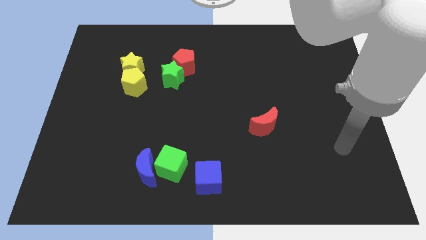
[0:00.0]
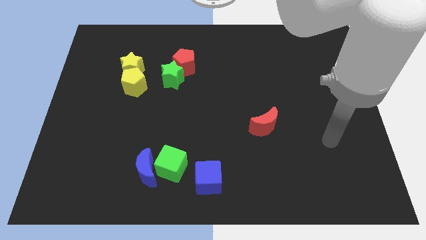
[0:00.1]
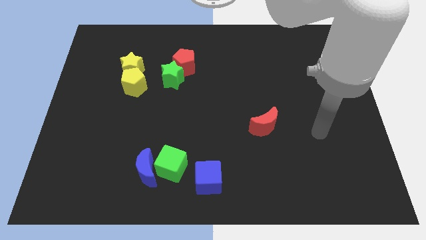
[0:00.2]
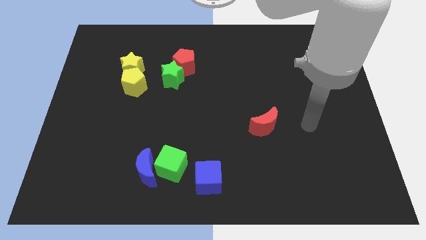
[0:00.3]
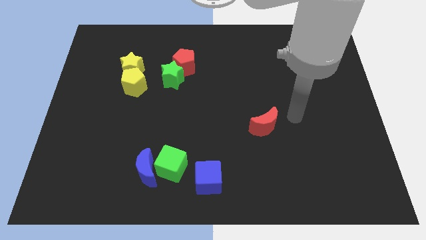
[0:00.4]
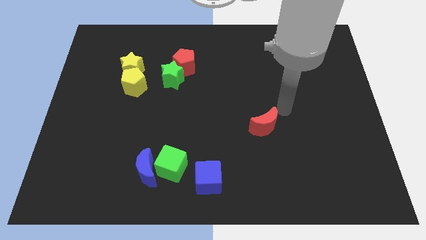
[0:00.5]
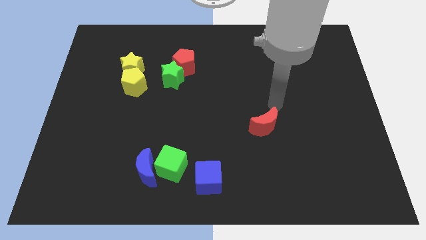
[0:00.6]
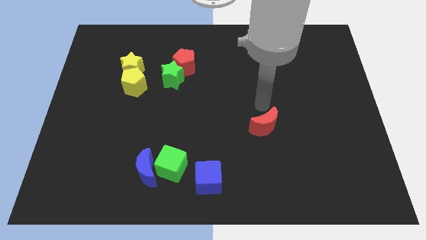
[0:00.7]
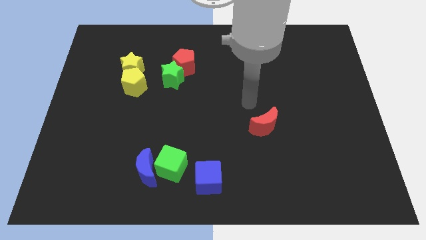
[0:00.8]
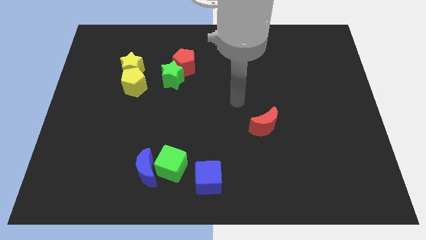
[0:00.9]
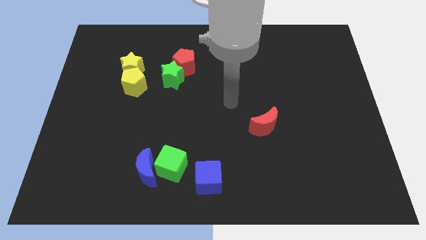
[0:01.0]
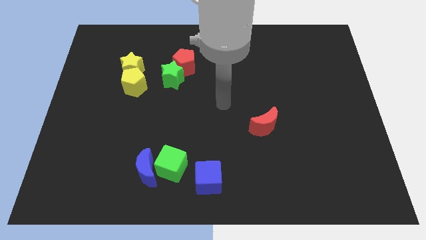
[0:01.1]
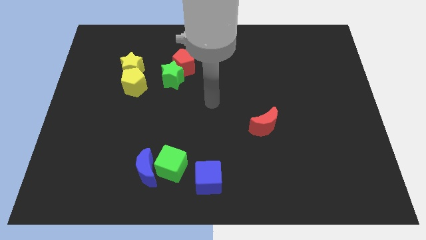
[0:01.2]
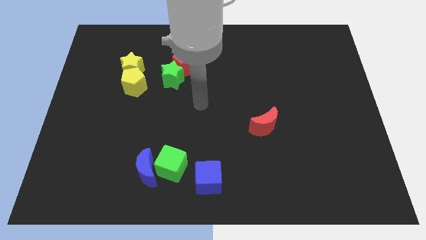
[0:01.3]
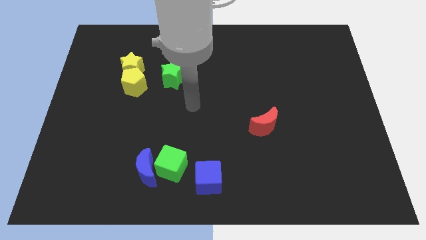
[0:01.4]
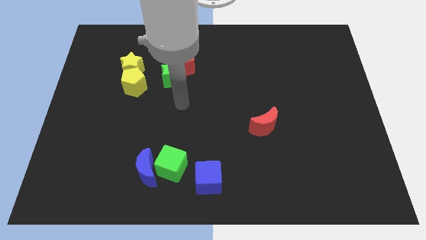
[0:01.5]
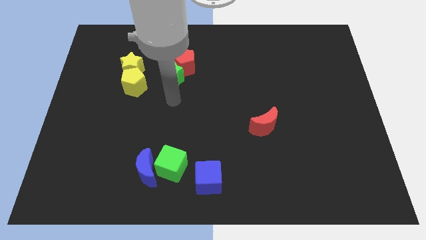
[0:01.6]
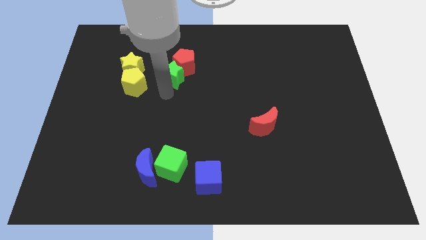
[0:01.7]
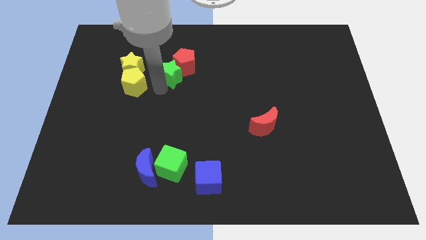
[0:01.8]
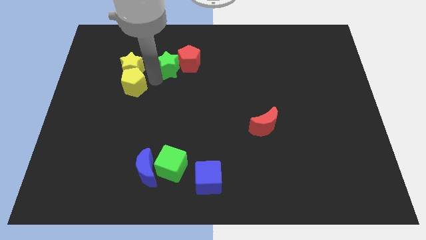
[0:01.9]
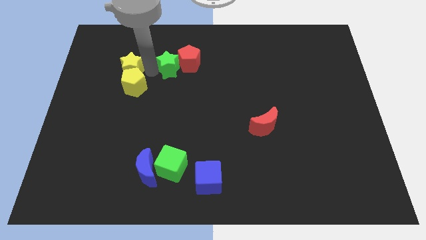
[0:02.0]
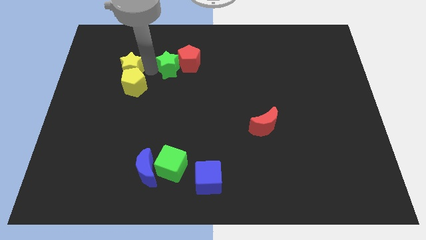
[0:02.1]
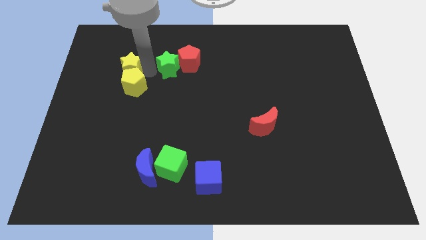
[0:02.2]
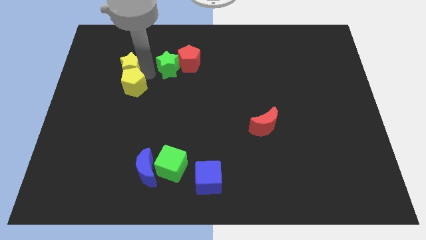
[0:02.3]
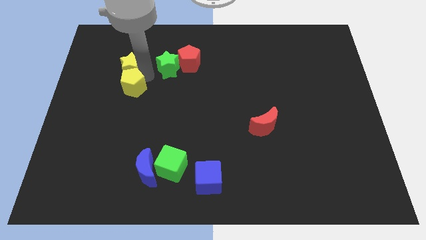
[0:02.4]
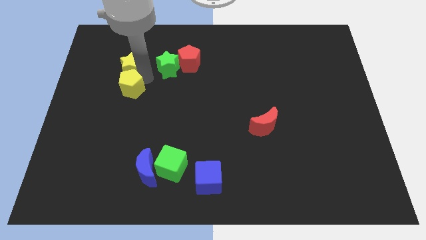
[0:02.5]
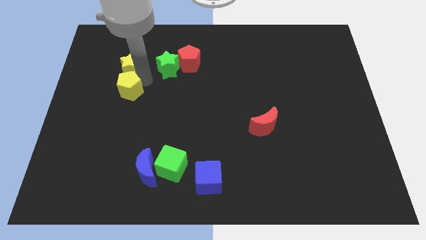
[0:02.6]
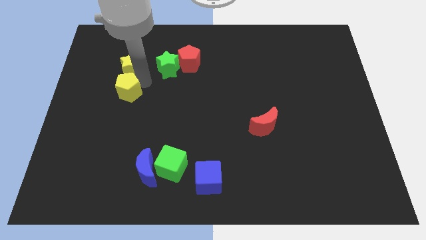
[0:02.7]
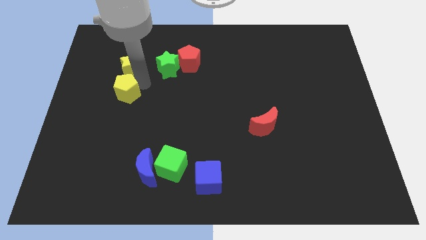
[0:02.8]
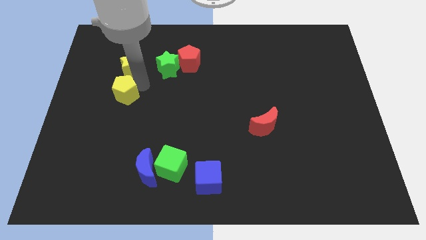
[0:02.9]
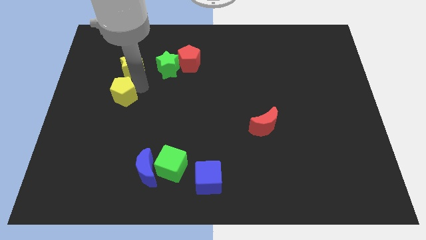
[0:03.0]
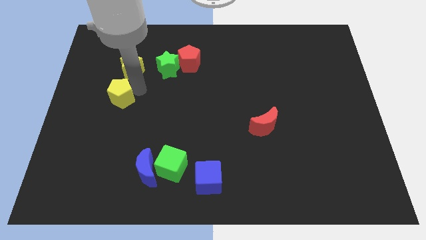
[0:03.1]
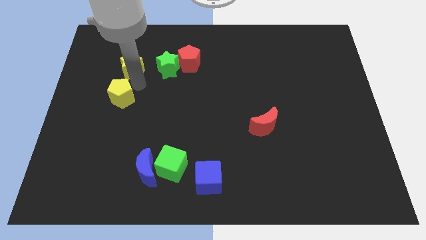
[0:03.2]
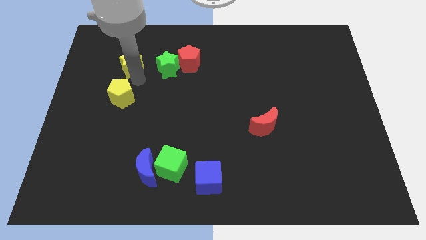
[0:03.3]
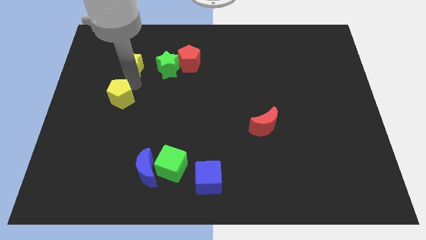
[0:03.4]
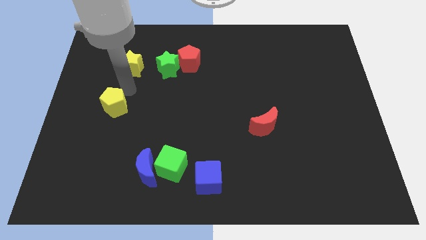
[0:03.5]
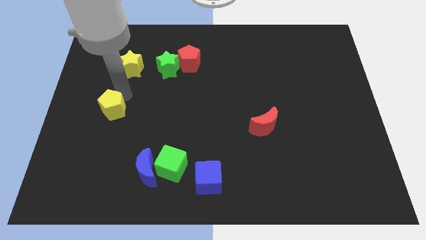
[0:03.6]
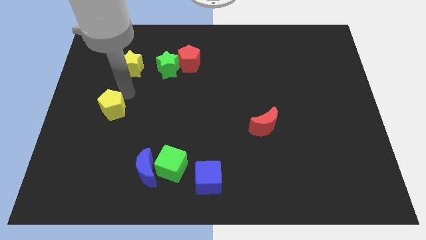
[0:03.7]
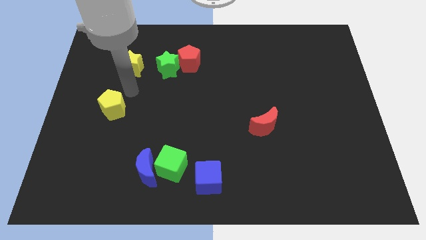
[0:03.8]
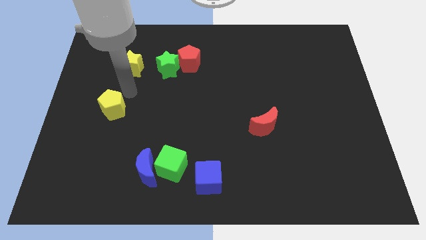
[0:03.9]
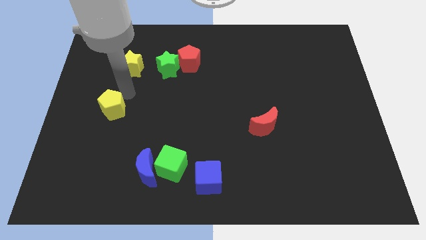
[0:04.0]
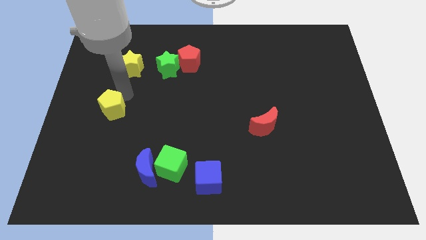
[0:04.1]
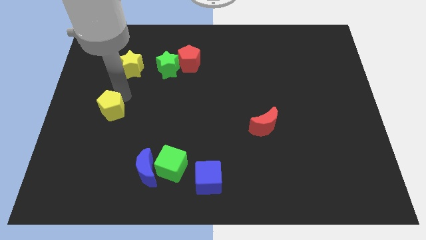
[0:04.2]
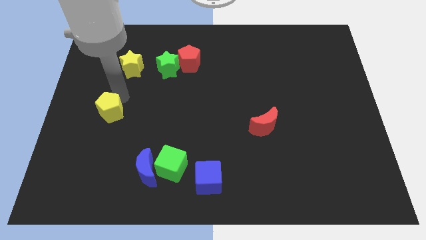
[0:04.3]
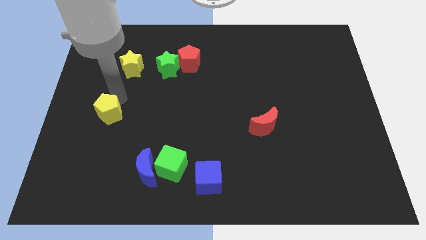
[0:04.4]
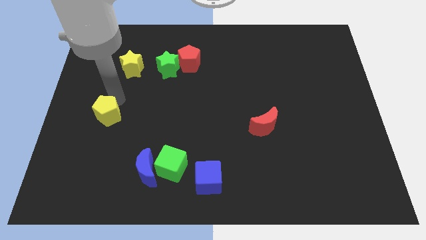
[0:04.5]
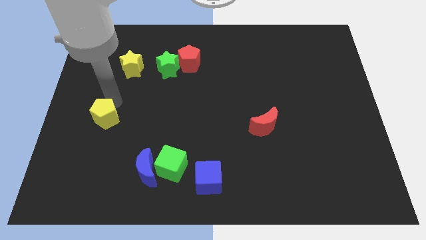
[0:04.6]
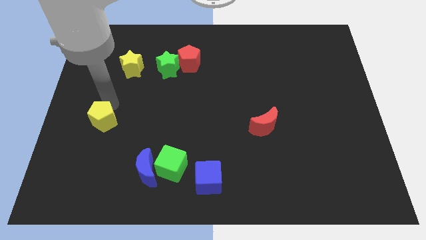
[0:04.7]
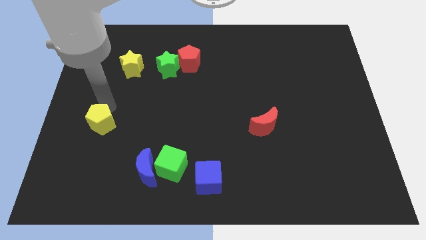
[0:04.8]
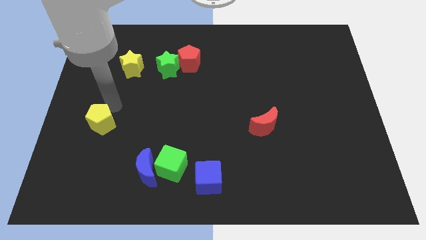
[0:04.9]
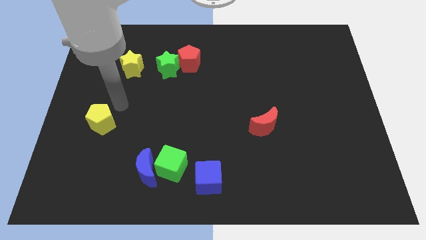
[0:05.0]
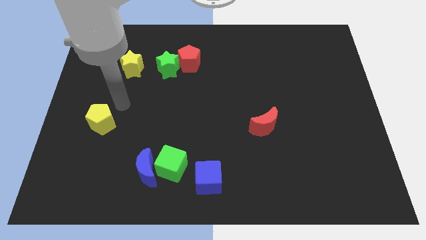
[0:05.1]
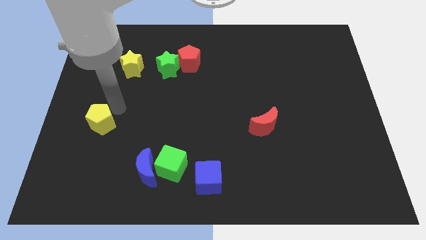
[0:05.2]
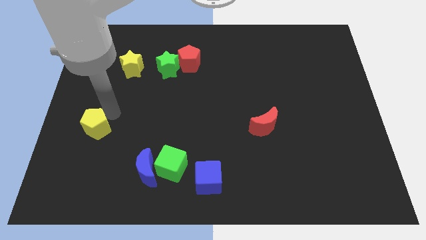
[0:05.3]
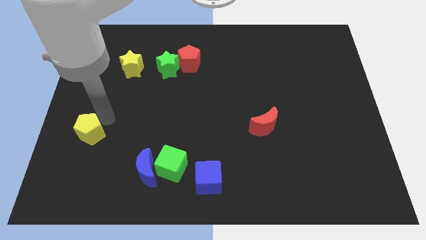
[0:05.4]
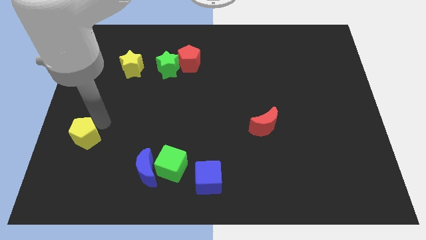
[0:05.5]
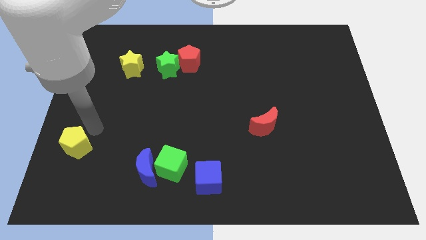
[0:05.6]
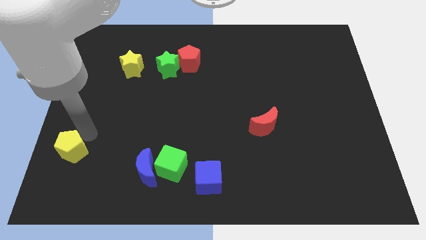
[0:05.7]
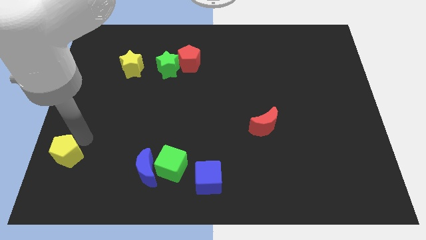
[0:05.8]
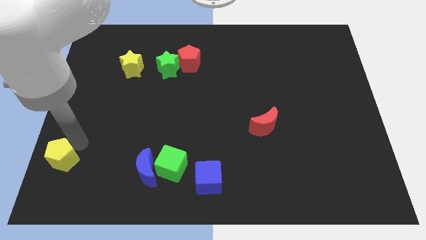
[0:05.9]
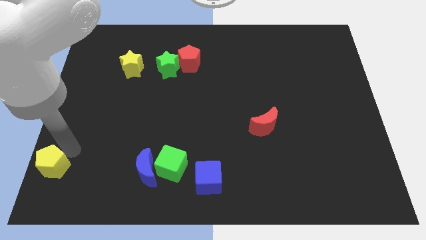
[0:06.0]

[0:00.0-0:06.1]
move the yellow pentagon to the bottom left corner

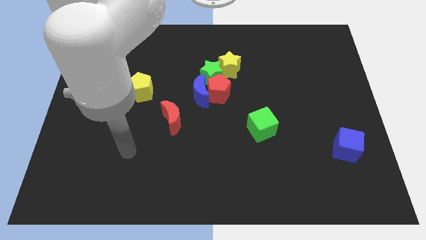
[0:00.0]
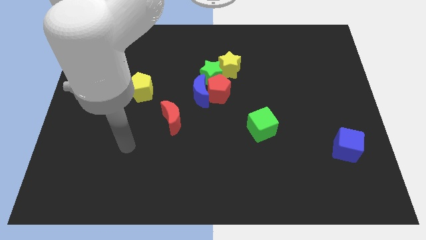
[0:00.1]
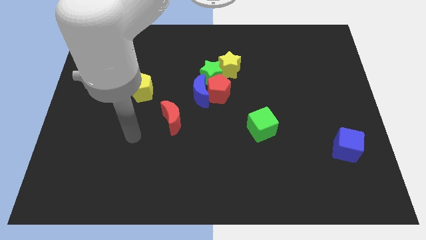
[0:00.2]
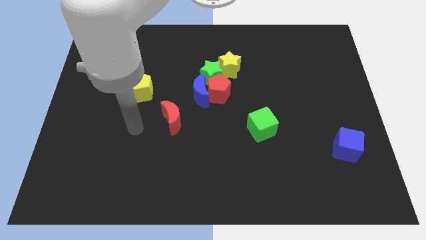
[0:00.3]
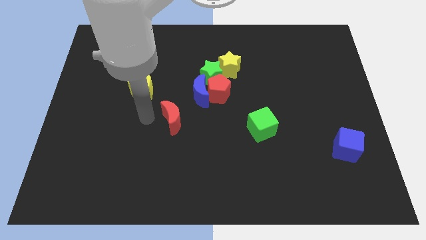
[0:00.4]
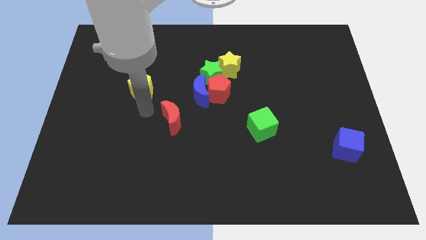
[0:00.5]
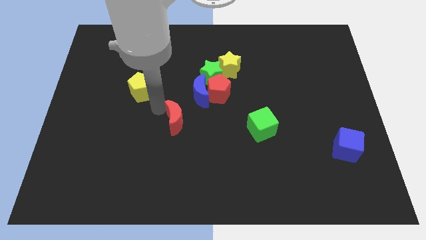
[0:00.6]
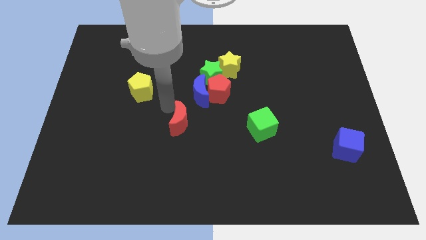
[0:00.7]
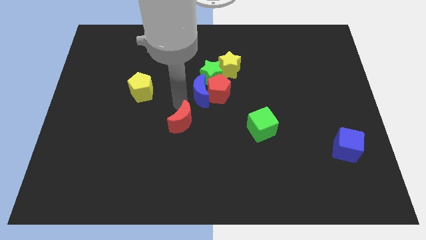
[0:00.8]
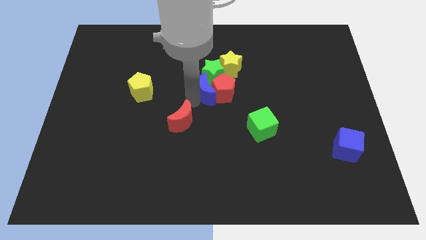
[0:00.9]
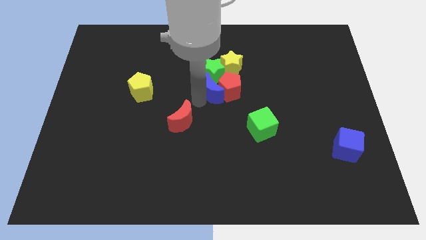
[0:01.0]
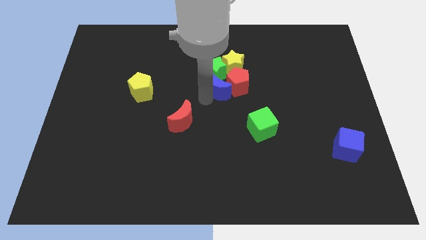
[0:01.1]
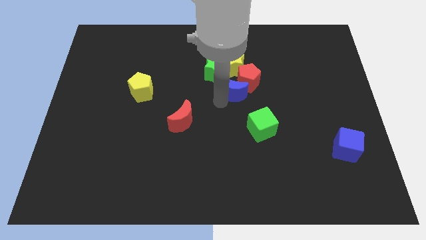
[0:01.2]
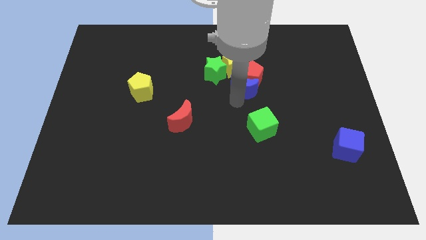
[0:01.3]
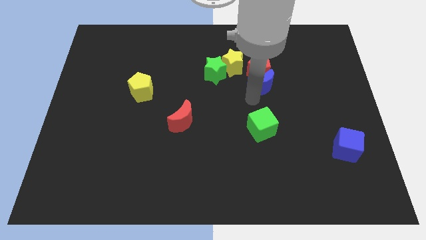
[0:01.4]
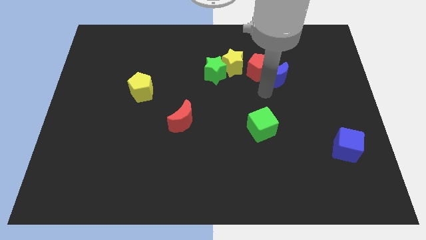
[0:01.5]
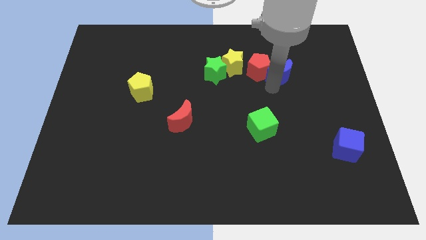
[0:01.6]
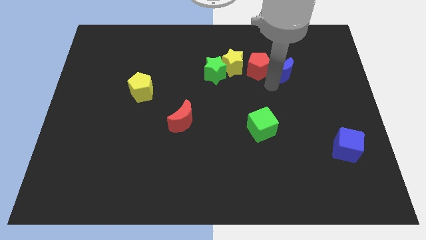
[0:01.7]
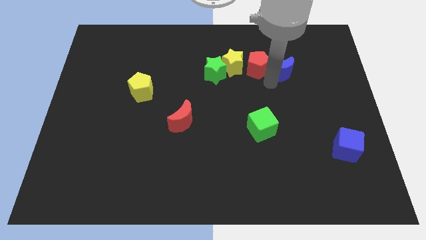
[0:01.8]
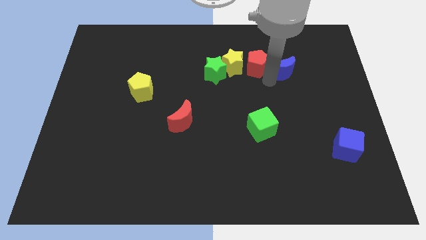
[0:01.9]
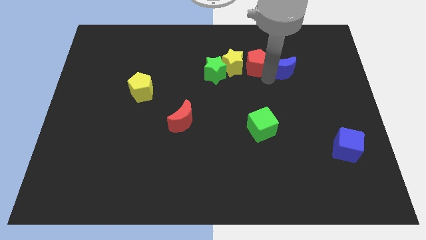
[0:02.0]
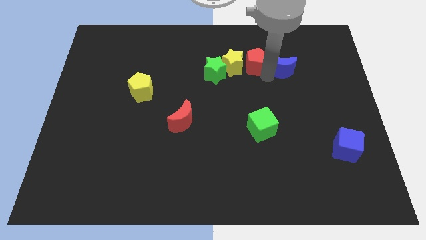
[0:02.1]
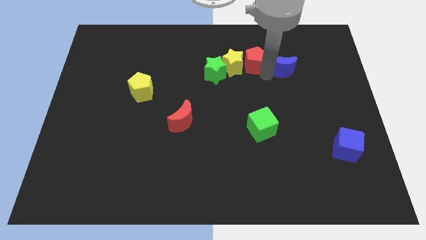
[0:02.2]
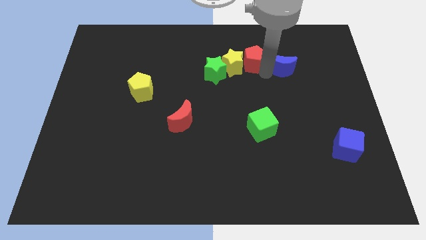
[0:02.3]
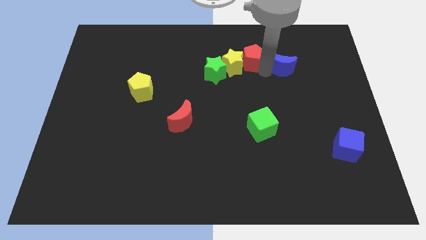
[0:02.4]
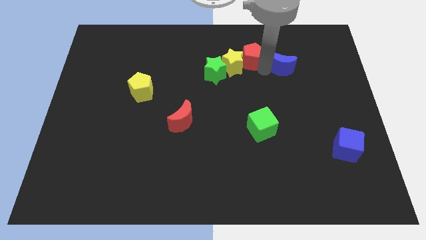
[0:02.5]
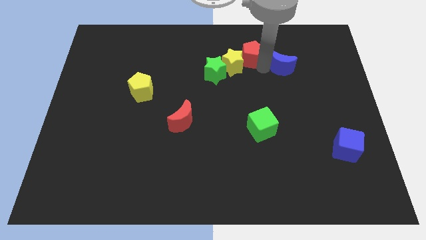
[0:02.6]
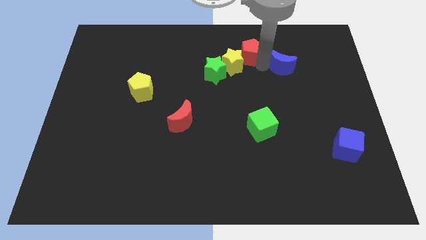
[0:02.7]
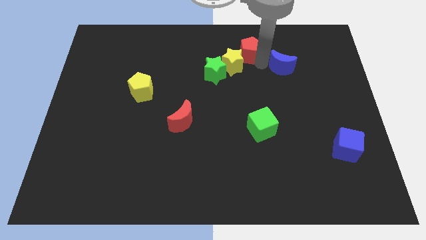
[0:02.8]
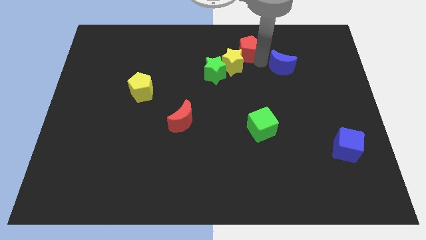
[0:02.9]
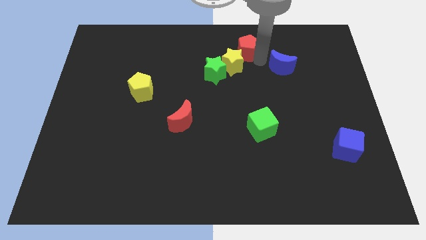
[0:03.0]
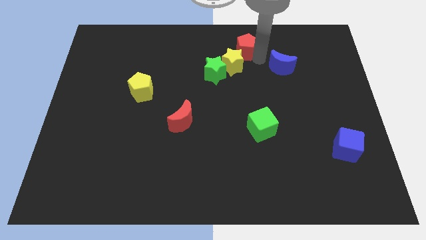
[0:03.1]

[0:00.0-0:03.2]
slide the red pentagon to the top
